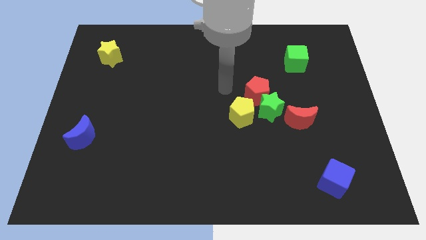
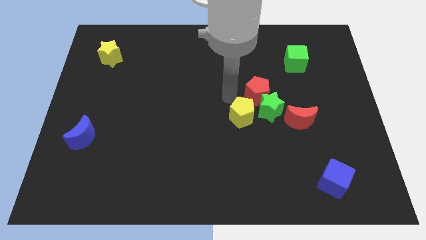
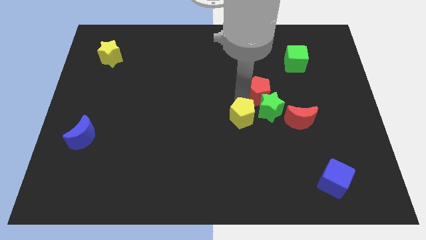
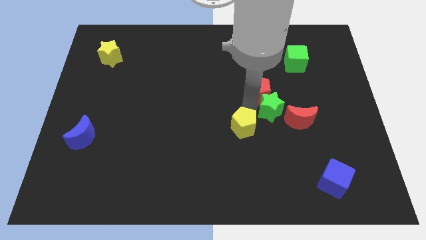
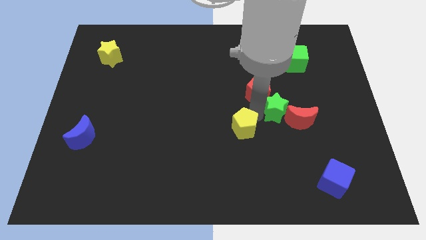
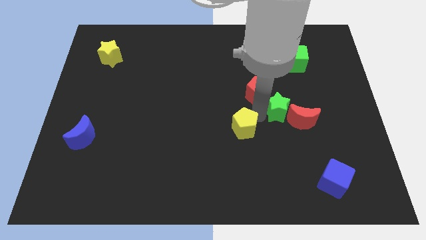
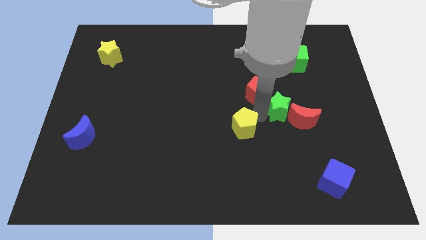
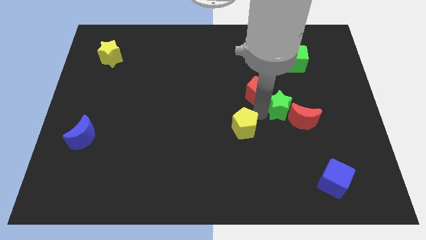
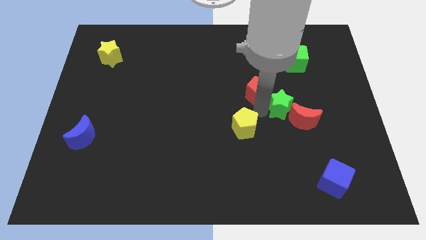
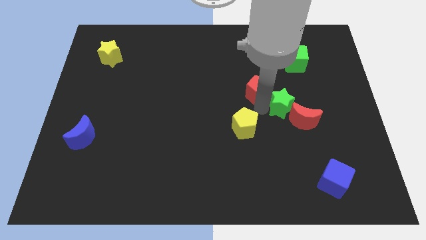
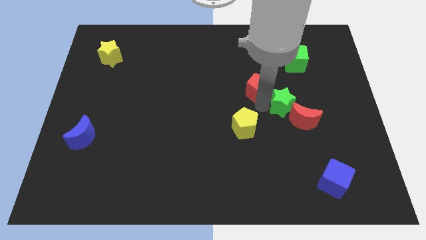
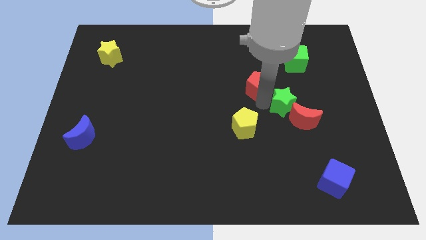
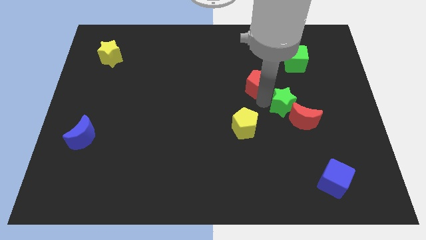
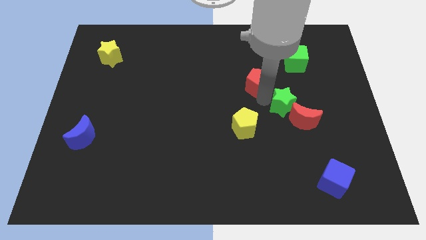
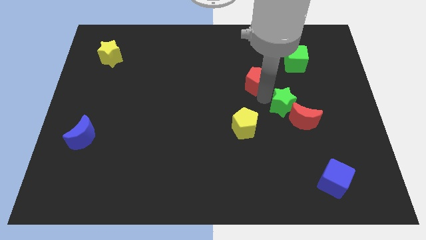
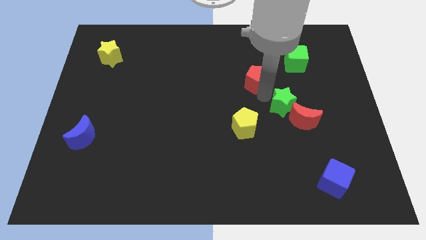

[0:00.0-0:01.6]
separate the red pentagon from the green star and yellow pentagon

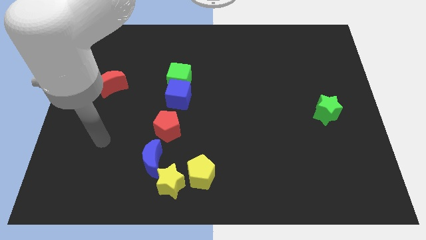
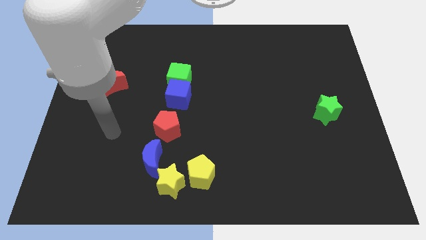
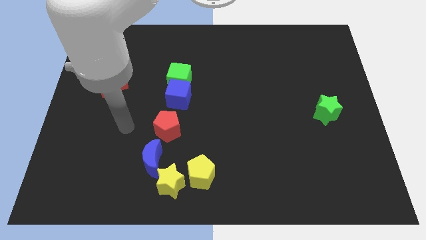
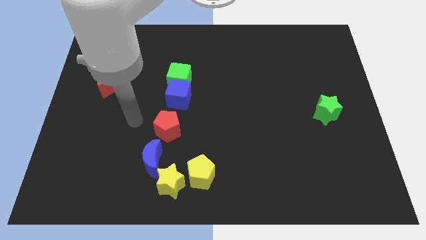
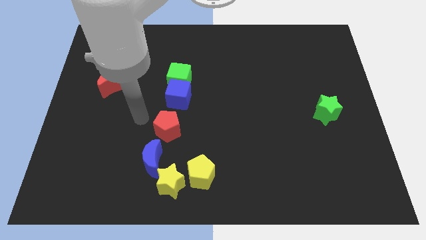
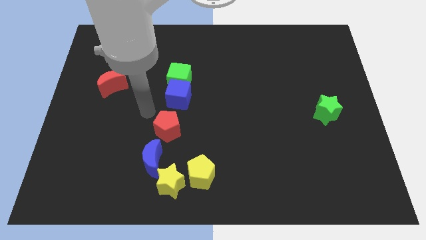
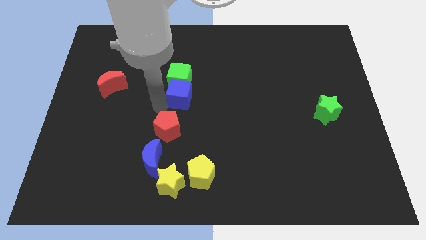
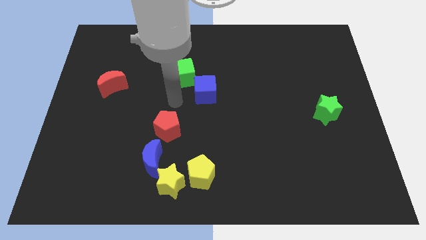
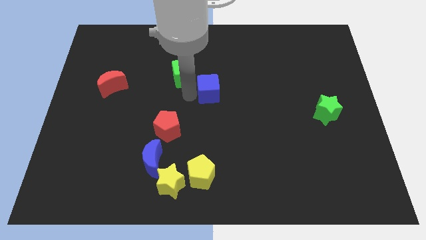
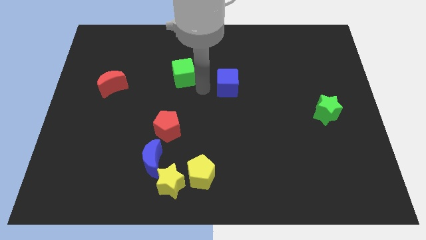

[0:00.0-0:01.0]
separate the green cube from the blue cube

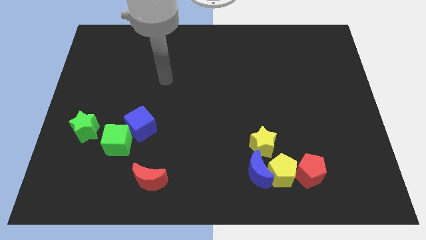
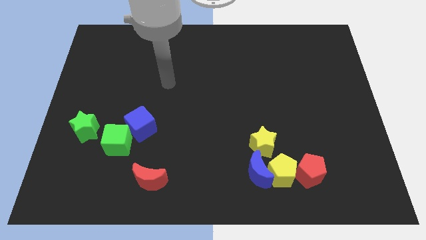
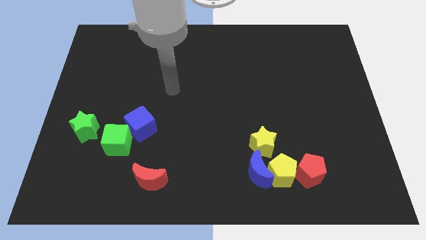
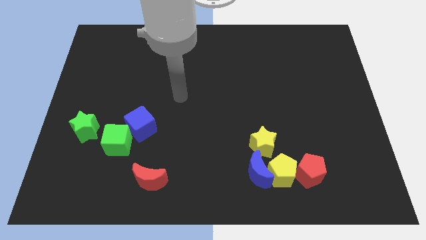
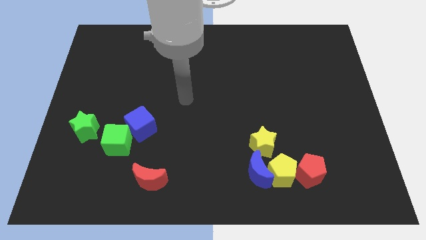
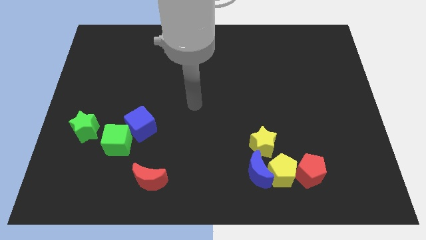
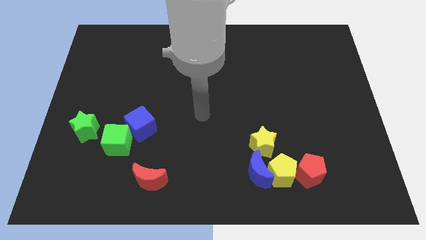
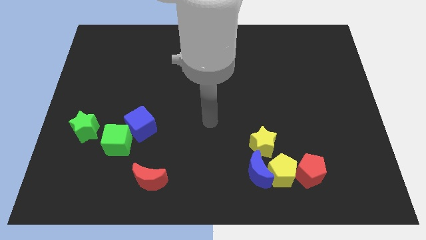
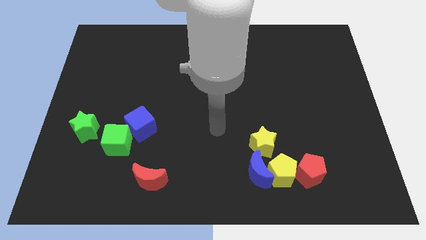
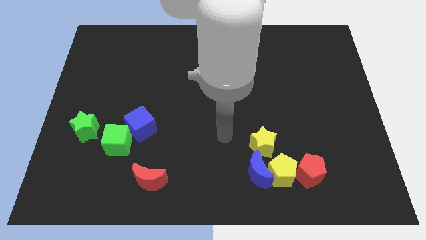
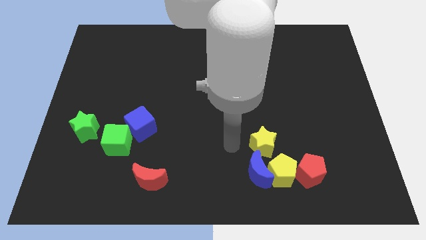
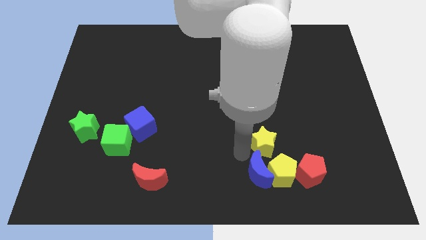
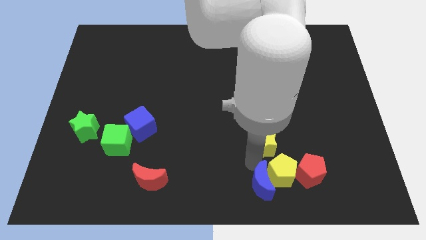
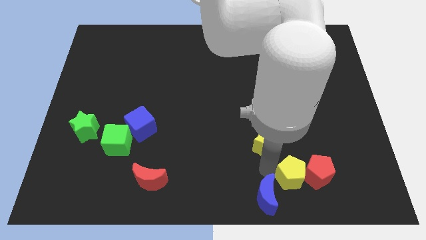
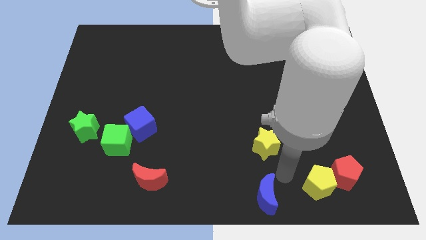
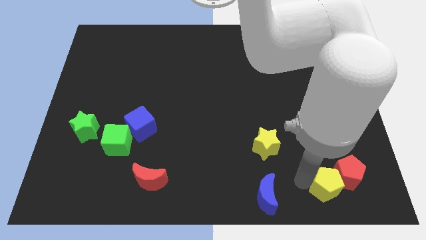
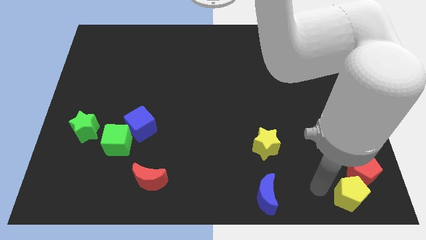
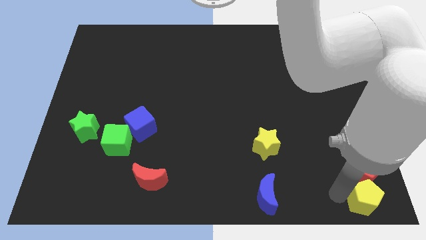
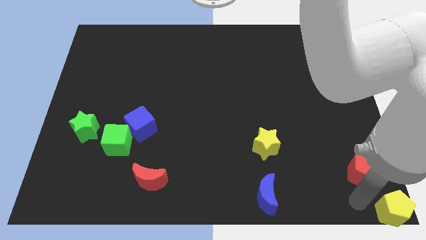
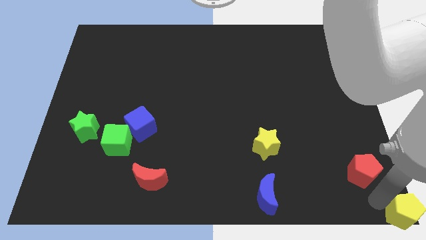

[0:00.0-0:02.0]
separate the red pentagon from the yellow pentagon

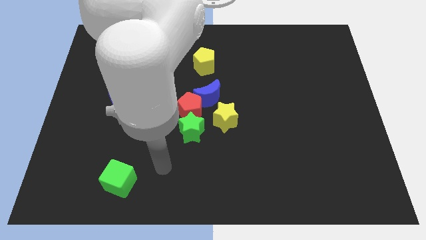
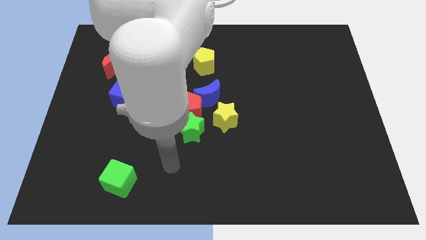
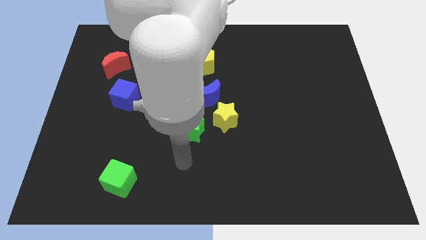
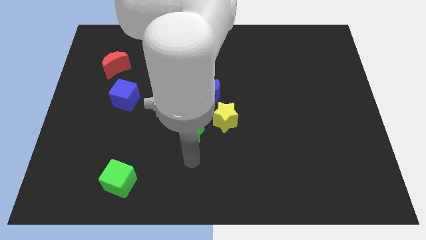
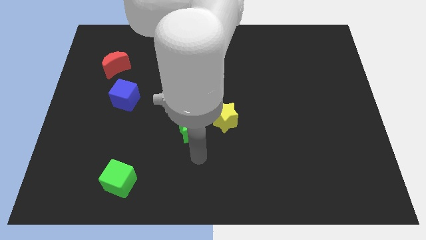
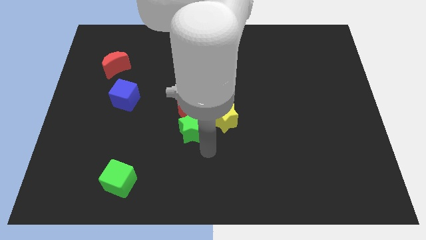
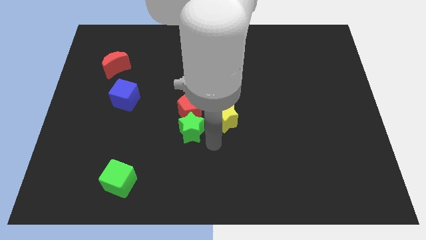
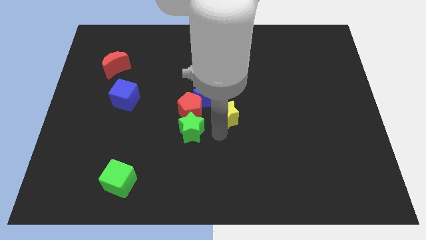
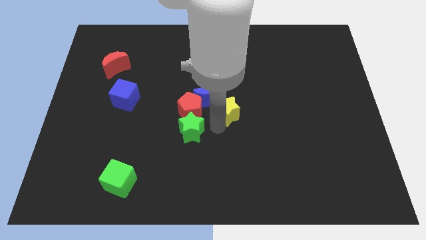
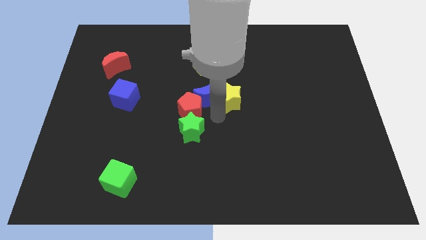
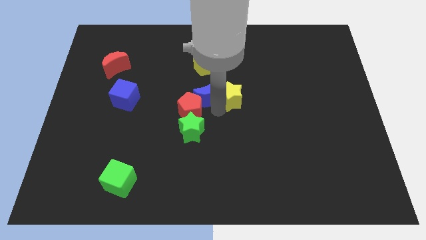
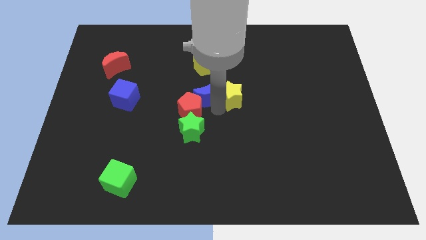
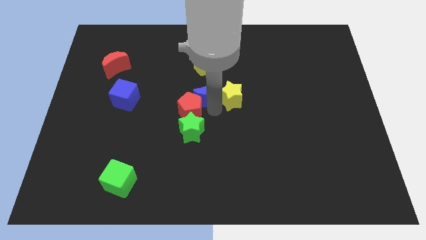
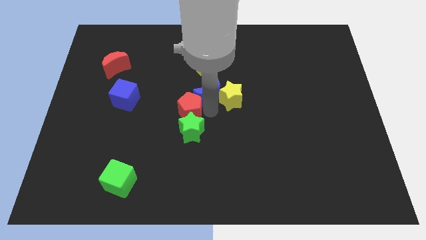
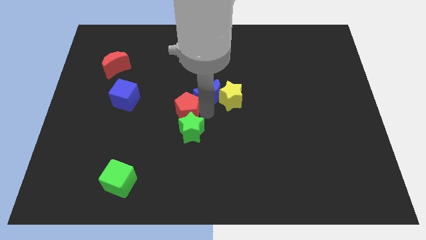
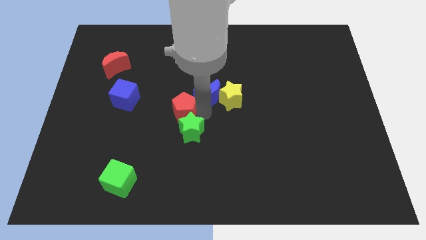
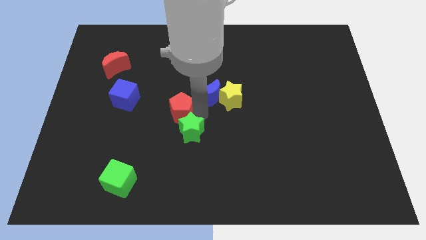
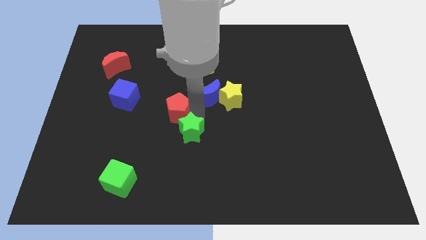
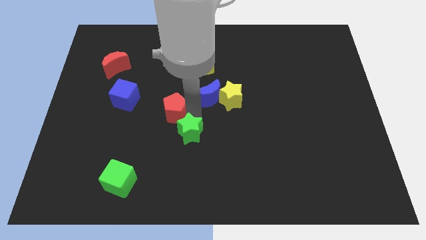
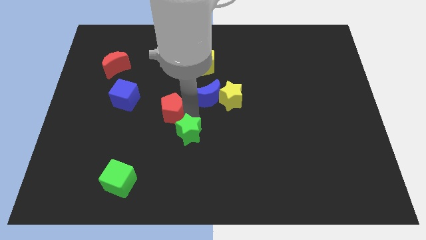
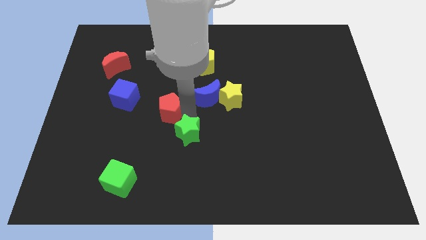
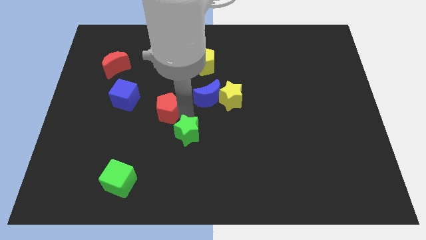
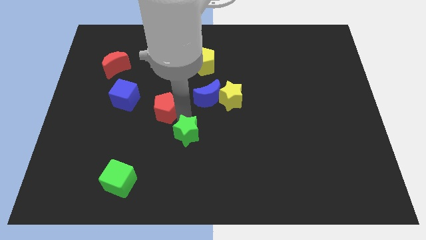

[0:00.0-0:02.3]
move the red pentagon away from the group of blocks

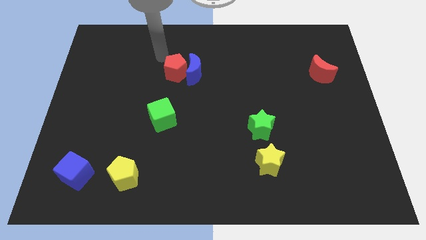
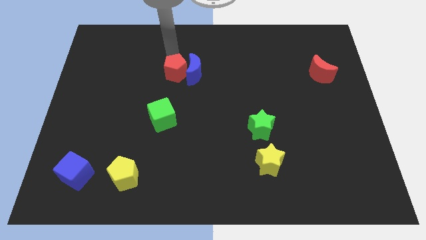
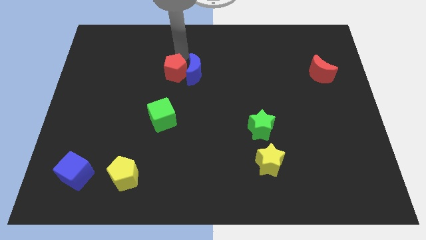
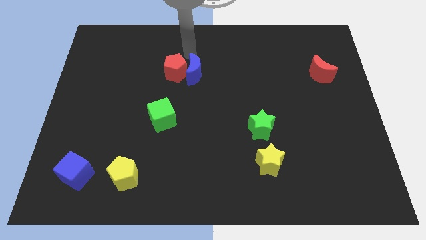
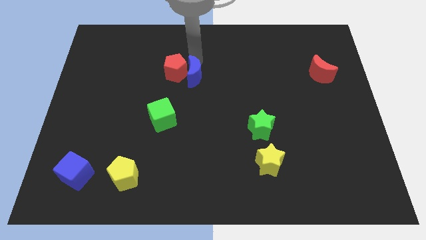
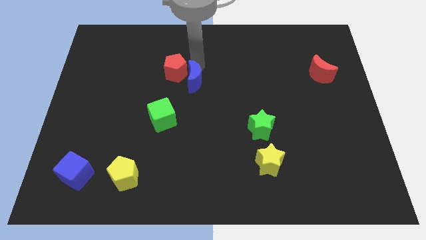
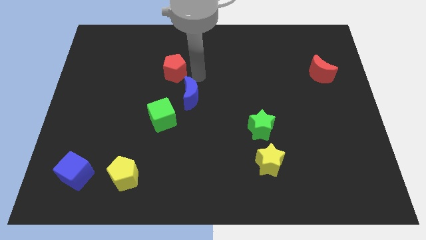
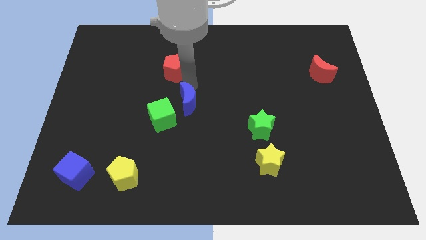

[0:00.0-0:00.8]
pull the red pentagon apart from the blue moon

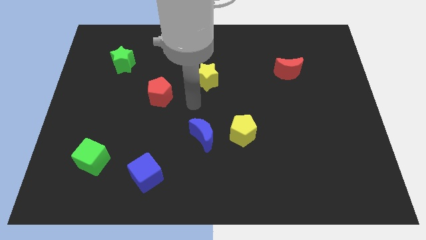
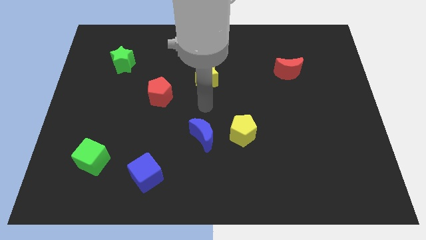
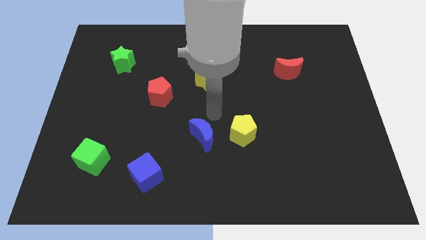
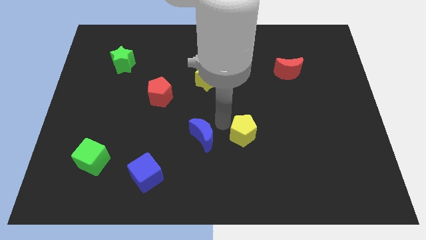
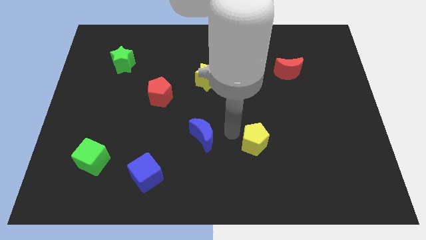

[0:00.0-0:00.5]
move the blue moon away from the yellow pentagon

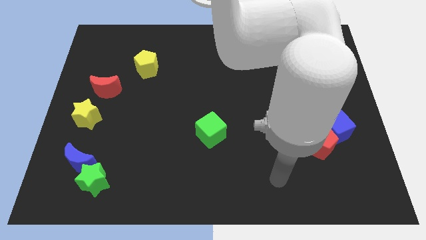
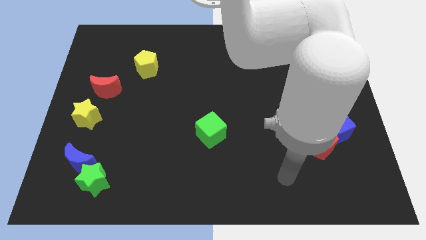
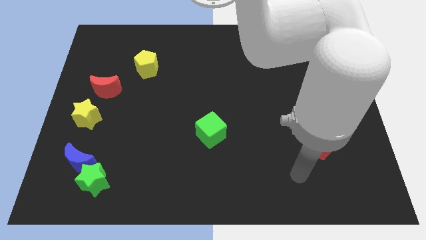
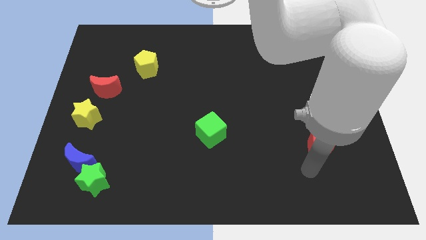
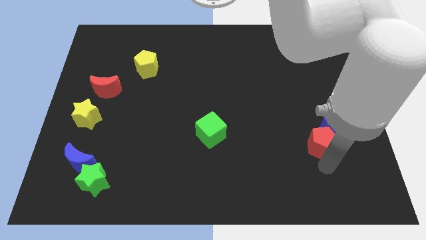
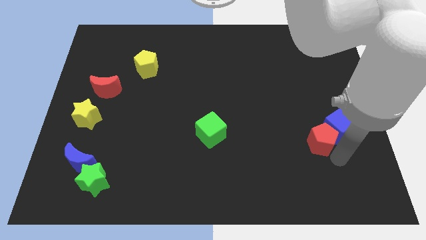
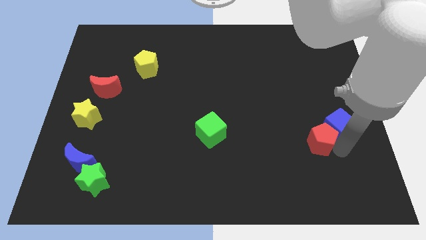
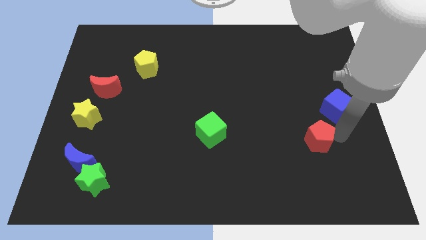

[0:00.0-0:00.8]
separate the red pentagon from the blue cube

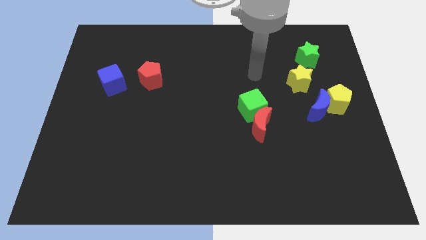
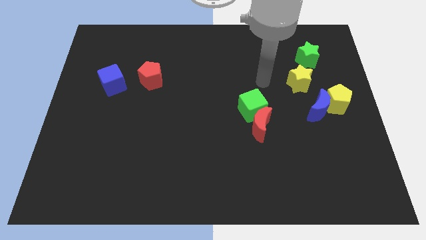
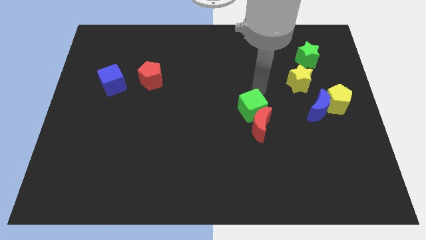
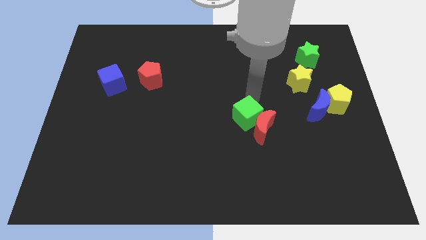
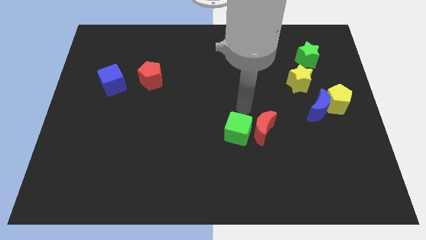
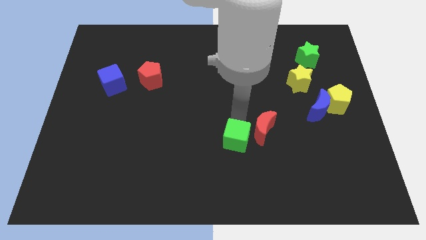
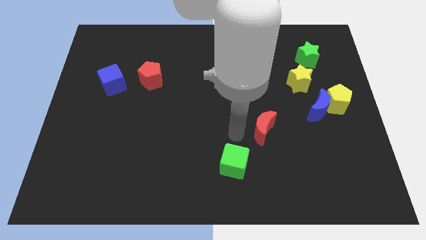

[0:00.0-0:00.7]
move the red moon away from the green cube
